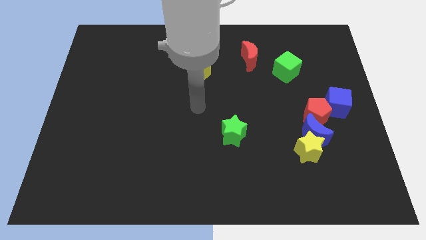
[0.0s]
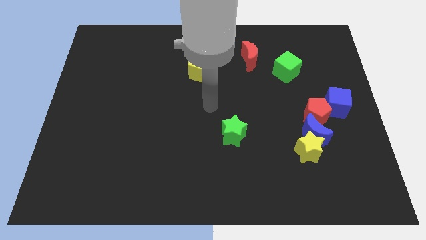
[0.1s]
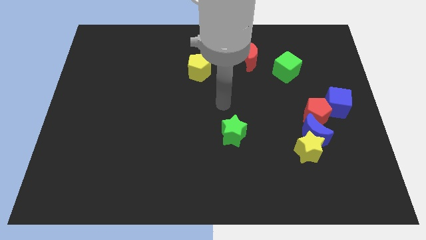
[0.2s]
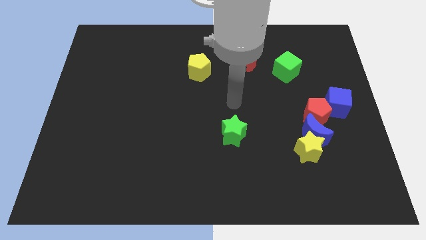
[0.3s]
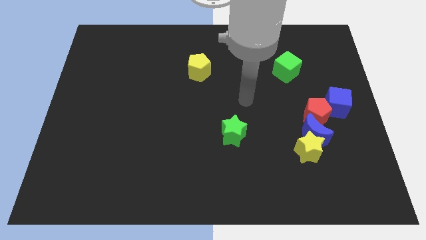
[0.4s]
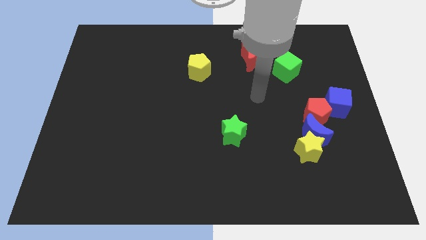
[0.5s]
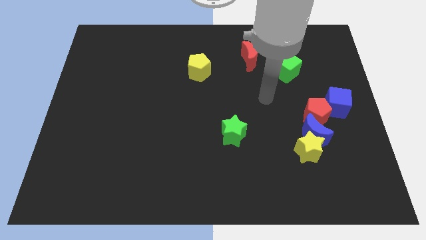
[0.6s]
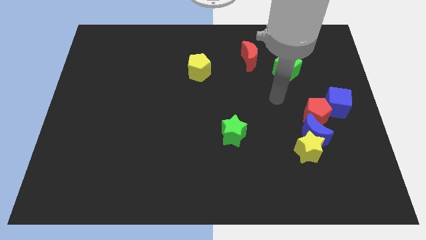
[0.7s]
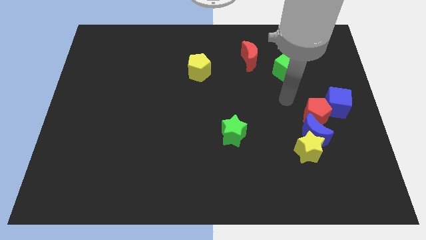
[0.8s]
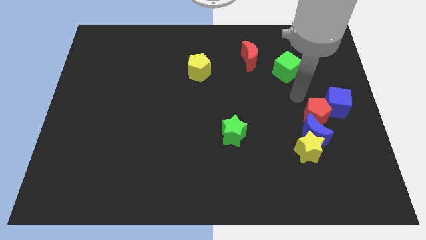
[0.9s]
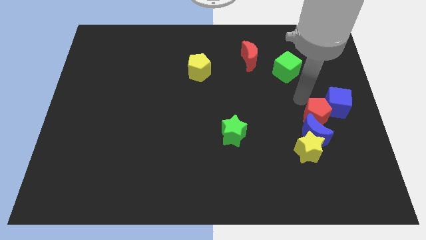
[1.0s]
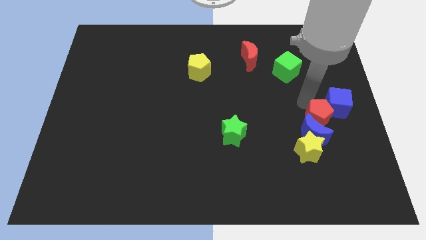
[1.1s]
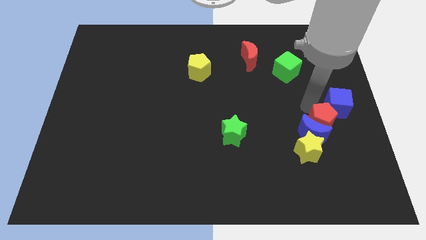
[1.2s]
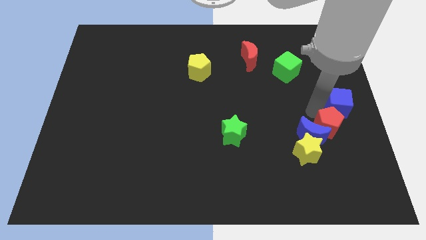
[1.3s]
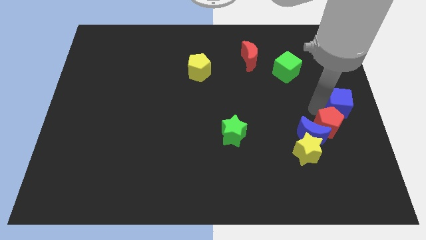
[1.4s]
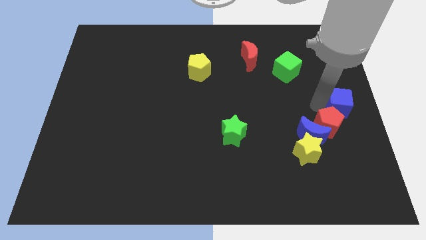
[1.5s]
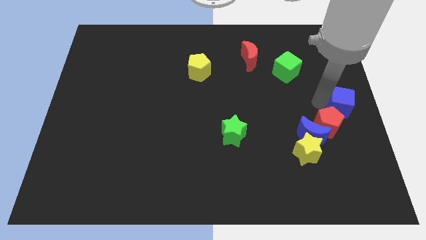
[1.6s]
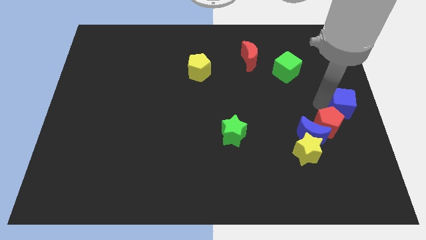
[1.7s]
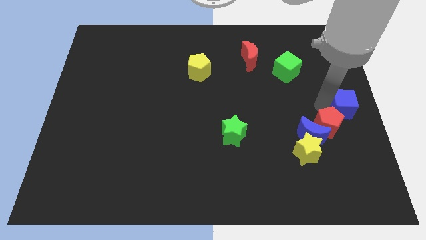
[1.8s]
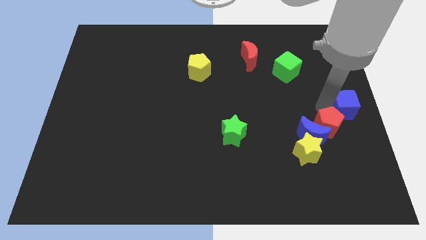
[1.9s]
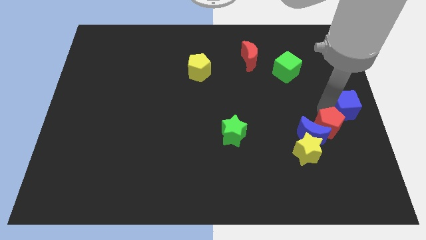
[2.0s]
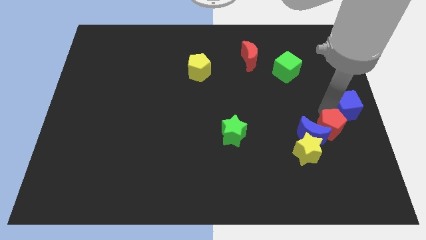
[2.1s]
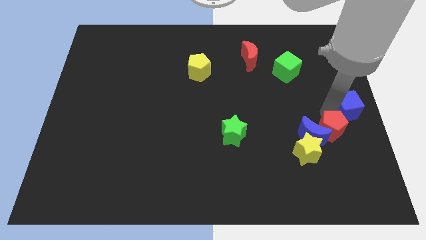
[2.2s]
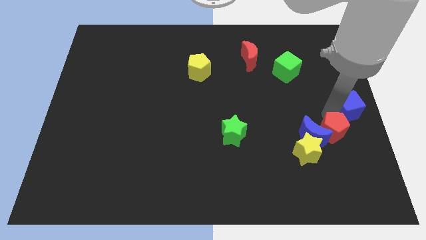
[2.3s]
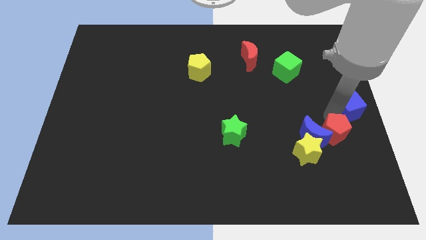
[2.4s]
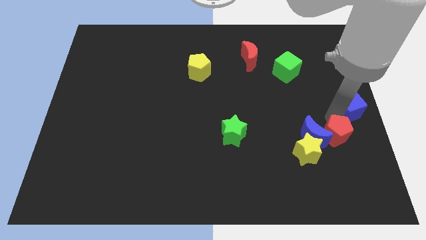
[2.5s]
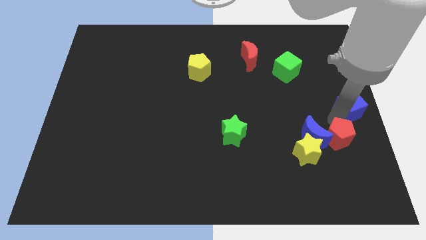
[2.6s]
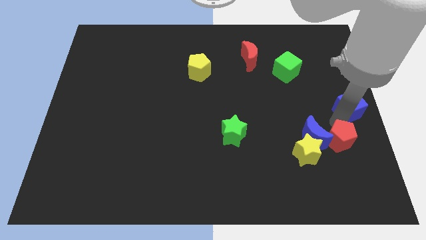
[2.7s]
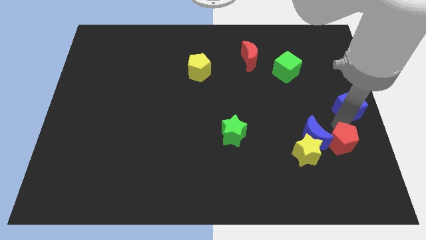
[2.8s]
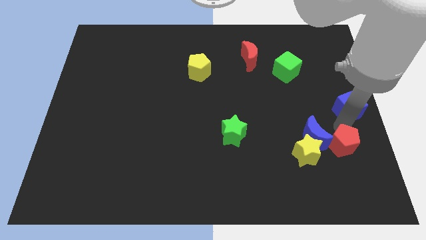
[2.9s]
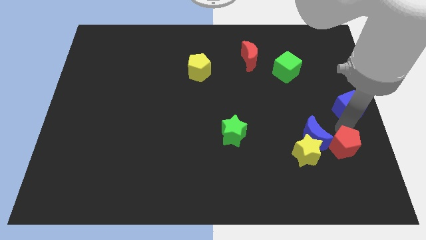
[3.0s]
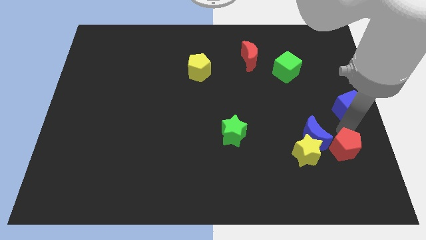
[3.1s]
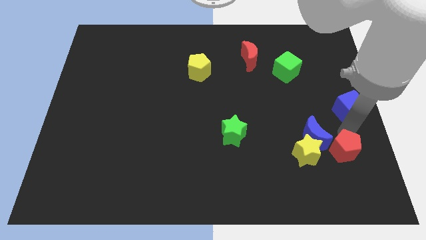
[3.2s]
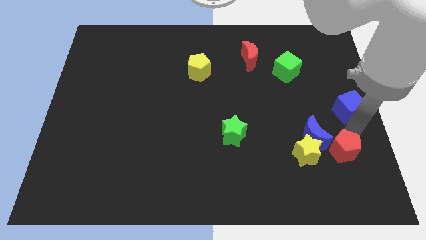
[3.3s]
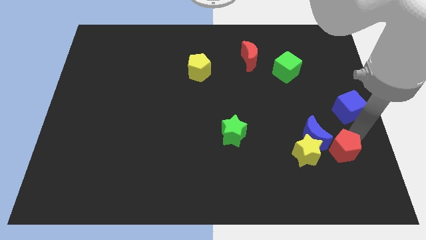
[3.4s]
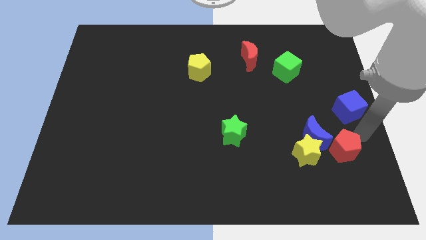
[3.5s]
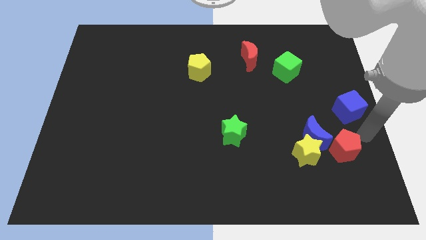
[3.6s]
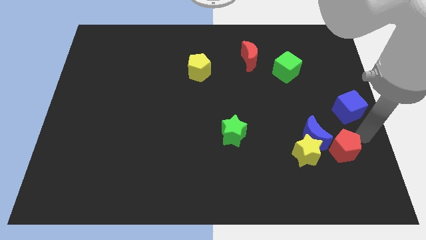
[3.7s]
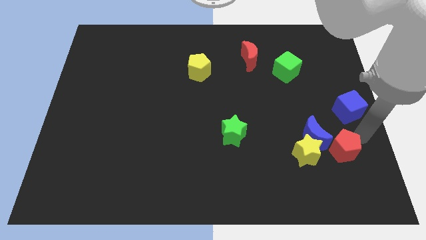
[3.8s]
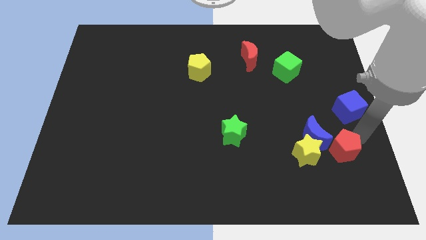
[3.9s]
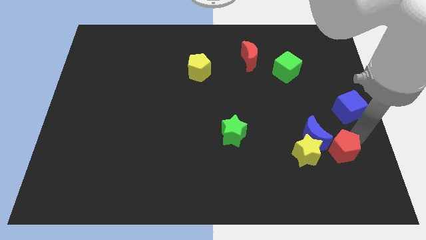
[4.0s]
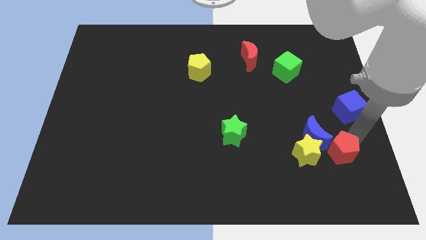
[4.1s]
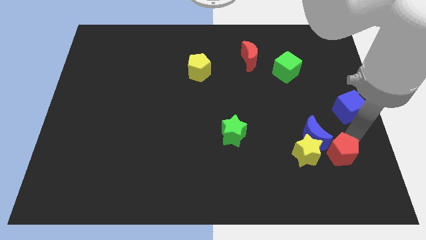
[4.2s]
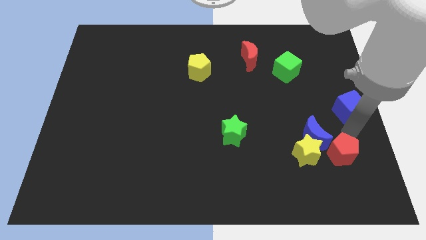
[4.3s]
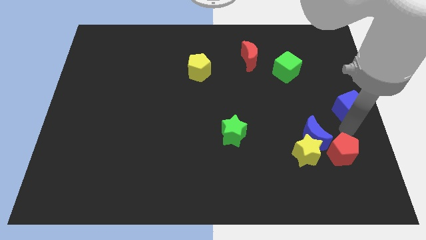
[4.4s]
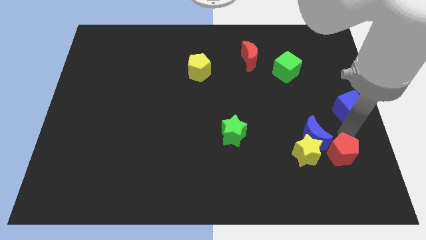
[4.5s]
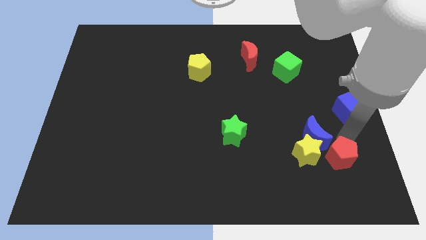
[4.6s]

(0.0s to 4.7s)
slide the red pentagon to the bottom right of the yellow star

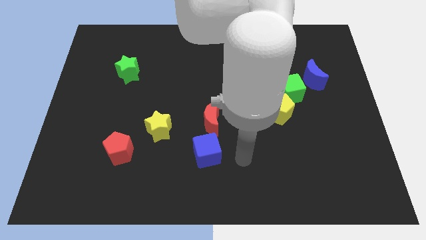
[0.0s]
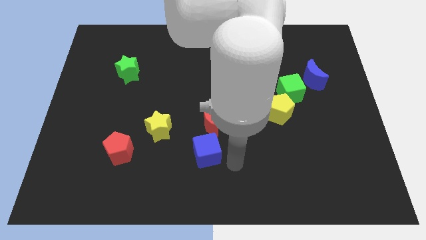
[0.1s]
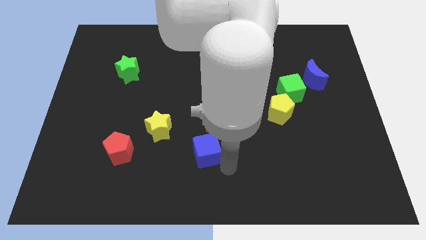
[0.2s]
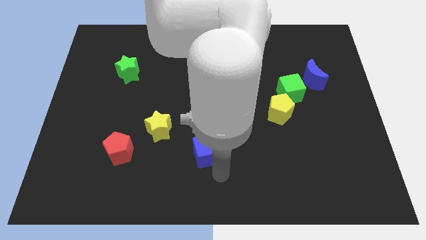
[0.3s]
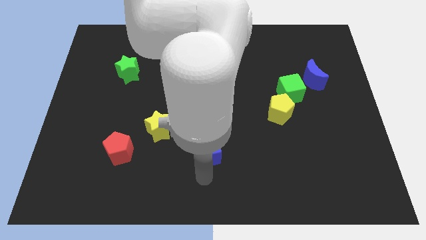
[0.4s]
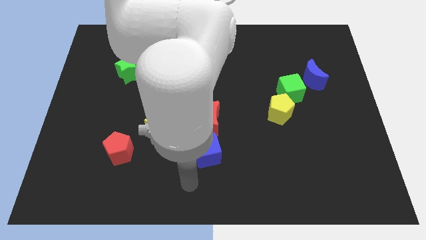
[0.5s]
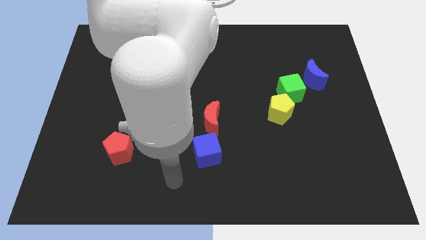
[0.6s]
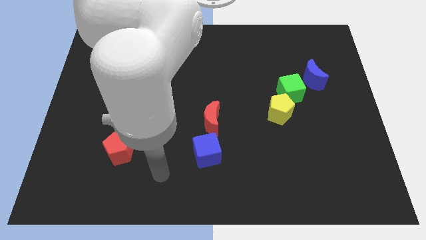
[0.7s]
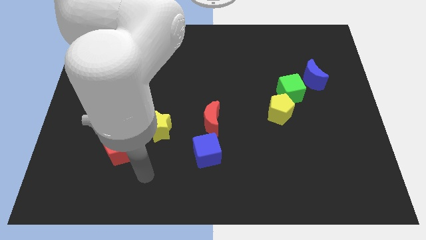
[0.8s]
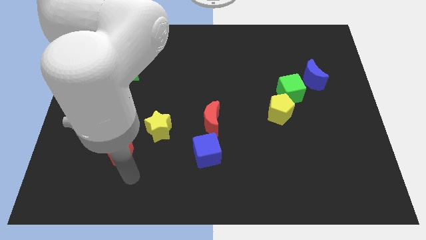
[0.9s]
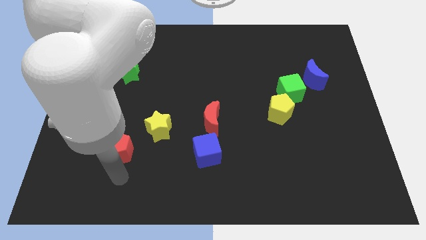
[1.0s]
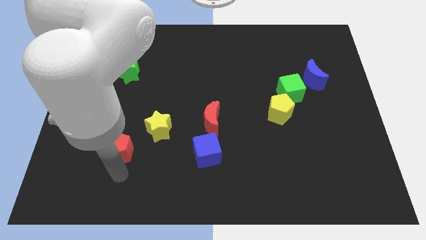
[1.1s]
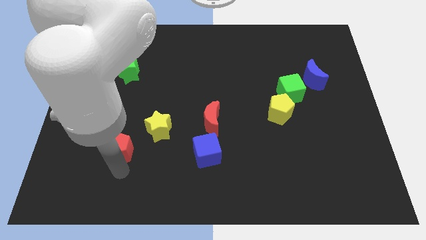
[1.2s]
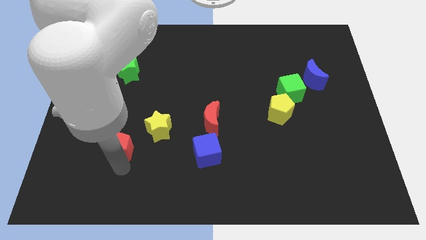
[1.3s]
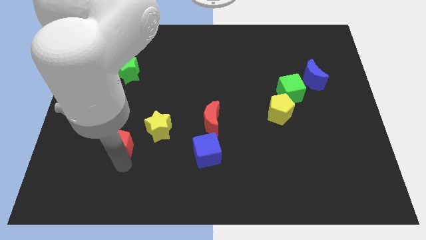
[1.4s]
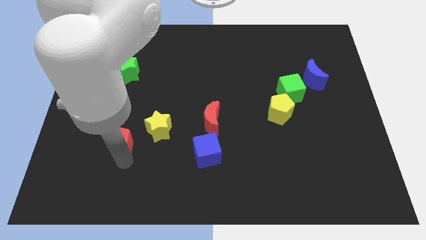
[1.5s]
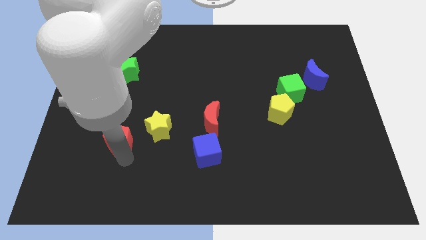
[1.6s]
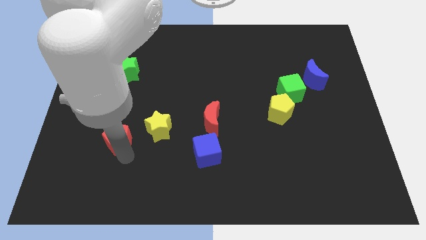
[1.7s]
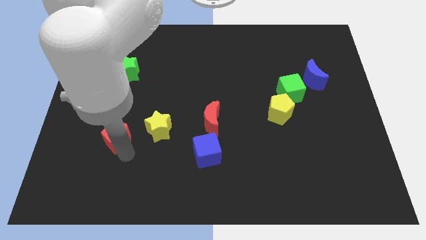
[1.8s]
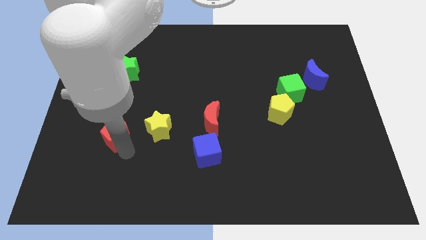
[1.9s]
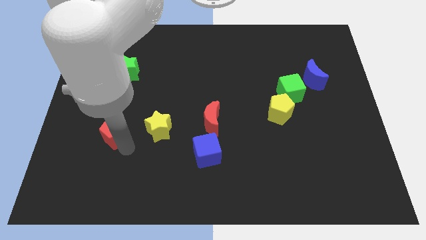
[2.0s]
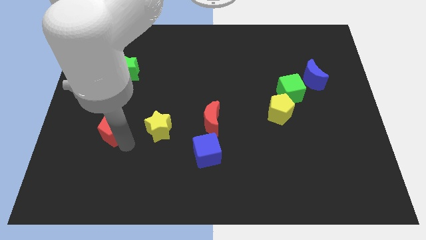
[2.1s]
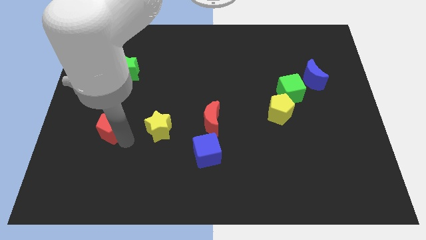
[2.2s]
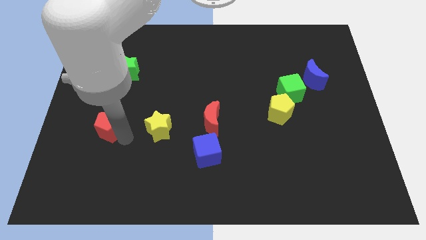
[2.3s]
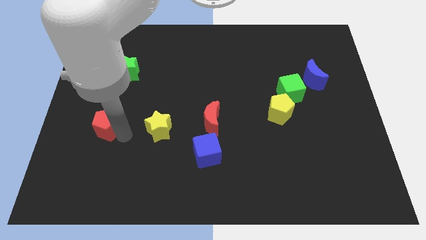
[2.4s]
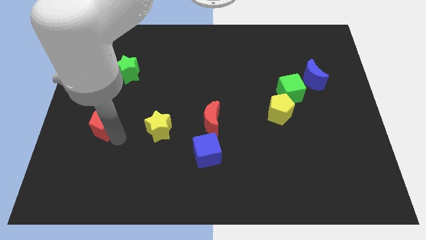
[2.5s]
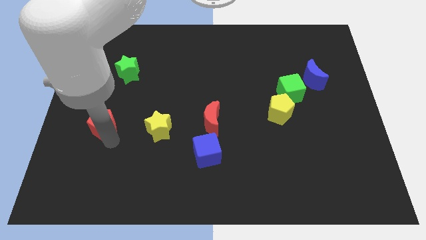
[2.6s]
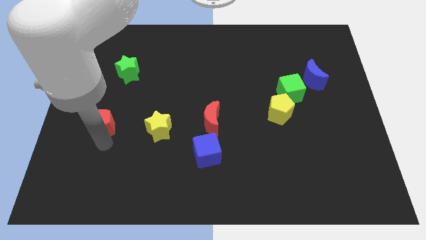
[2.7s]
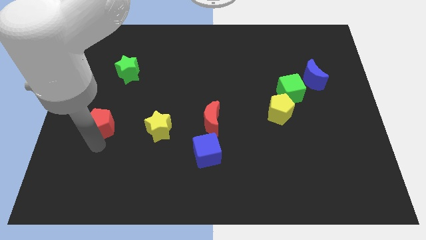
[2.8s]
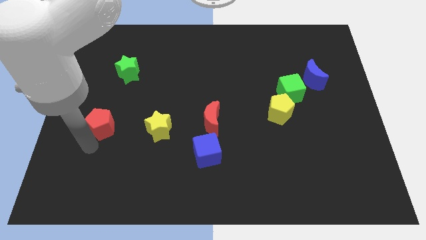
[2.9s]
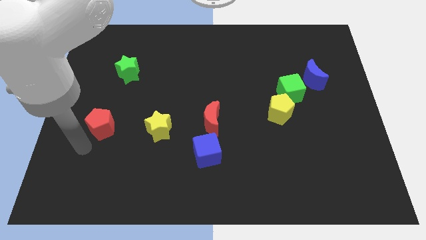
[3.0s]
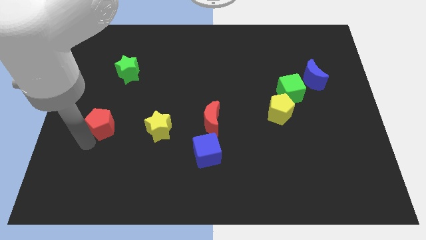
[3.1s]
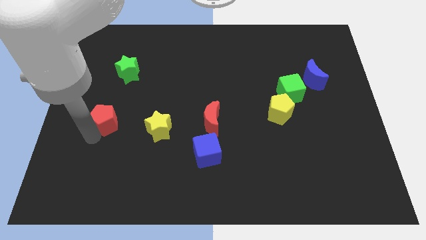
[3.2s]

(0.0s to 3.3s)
slide the red pentagon below the green star

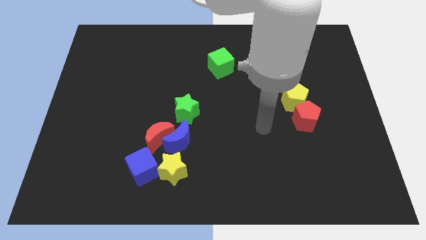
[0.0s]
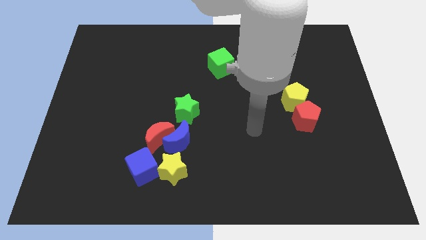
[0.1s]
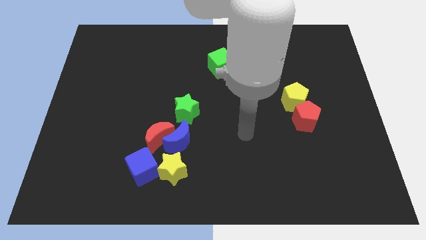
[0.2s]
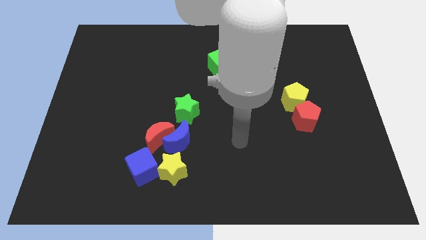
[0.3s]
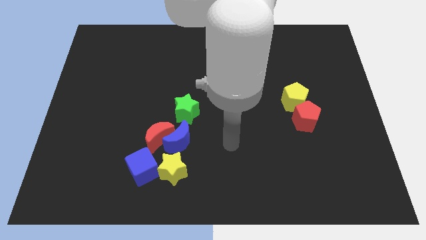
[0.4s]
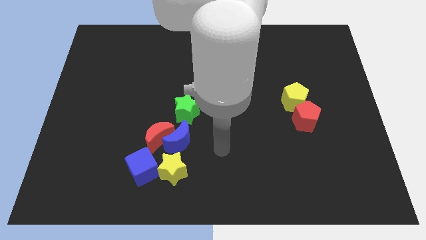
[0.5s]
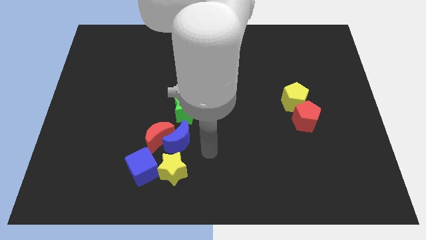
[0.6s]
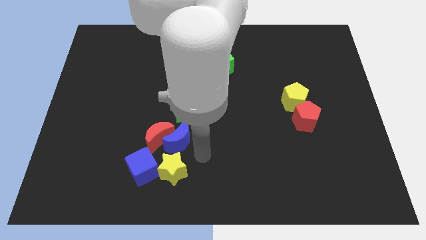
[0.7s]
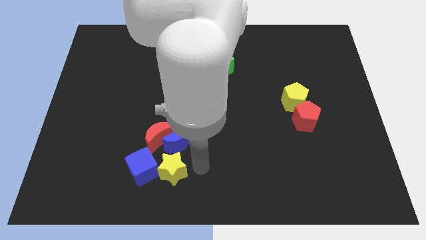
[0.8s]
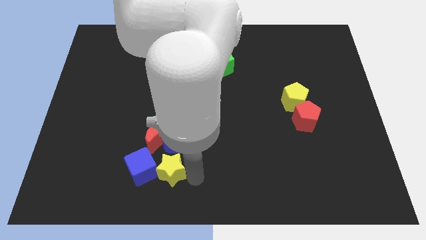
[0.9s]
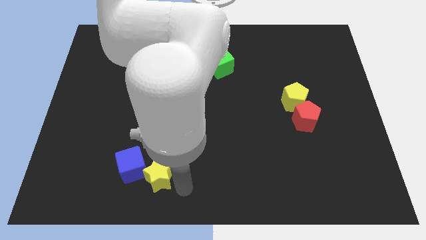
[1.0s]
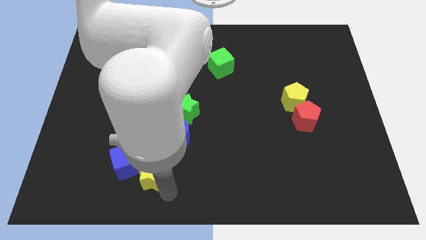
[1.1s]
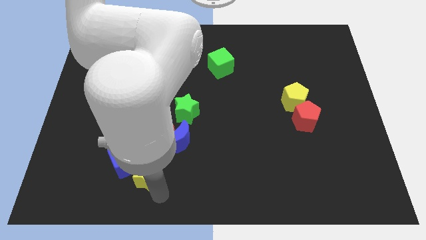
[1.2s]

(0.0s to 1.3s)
slide the blue cube above the yellow star
